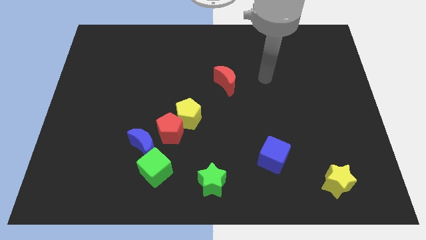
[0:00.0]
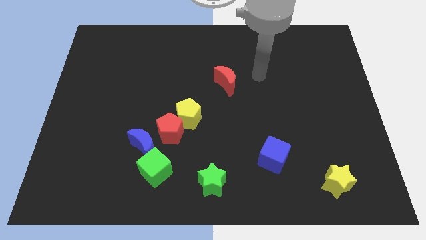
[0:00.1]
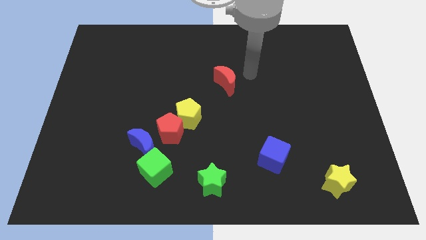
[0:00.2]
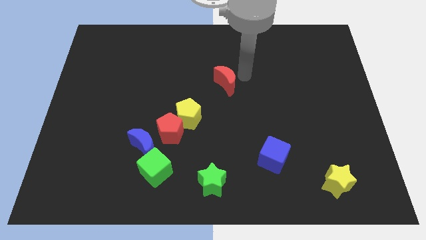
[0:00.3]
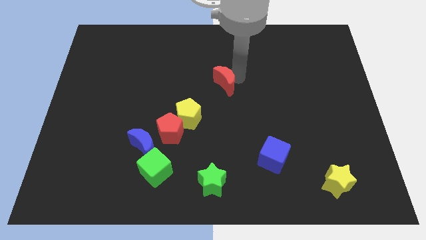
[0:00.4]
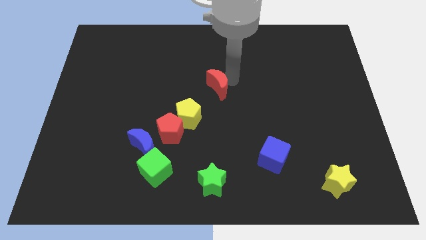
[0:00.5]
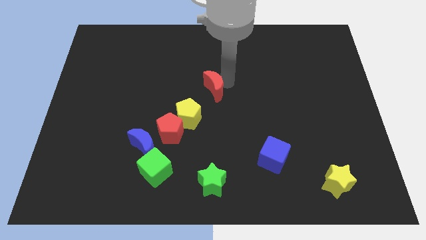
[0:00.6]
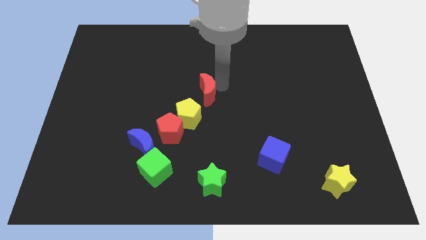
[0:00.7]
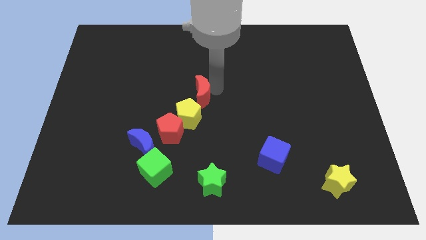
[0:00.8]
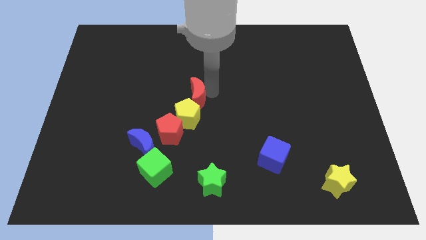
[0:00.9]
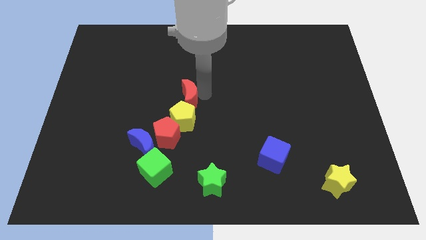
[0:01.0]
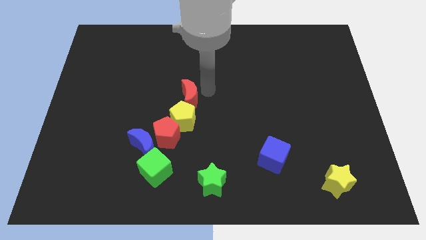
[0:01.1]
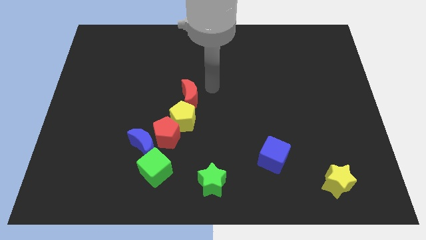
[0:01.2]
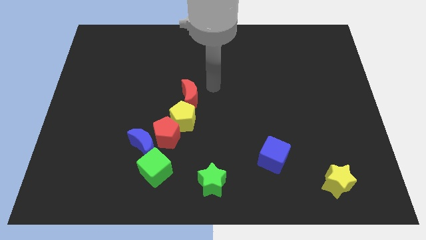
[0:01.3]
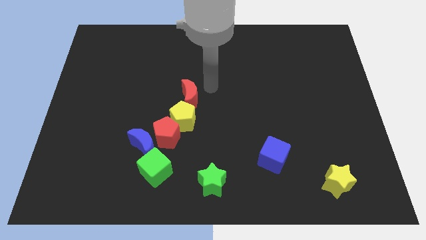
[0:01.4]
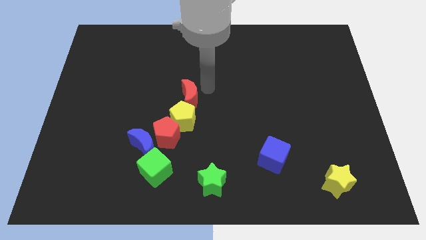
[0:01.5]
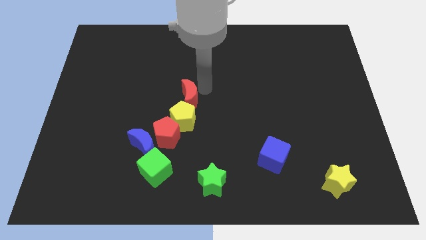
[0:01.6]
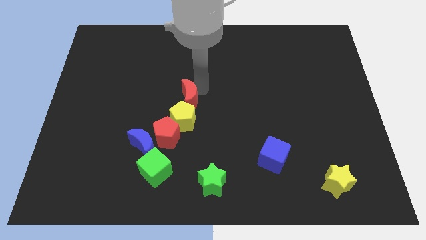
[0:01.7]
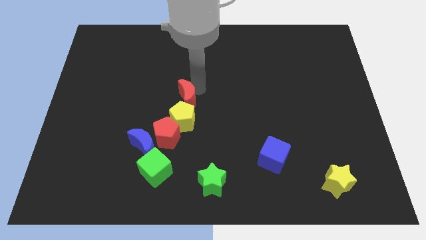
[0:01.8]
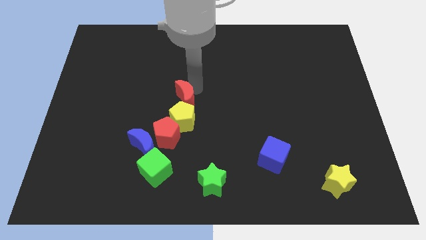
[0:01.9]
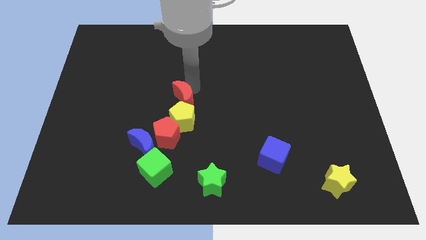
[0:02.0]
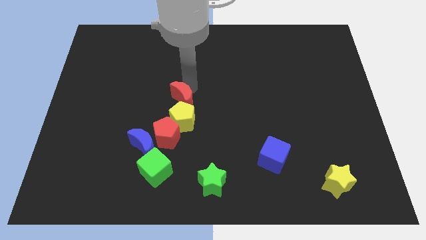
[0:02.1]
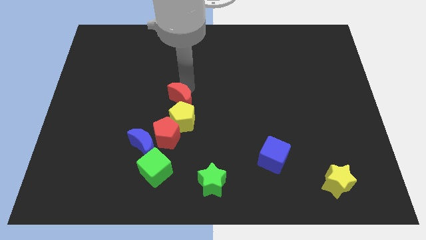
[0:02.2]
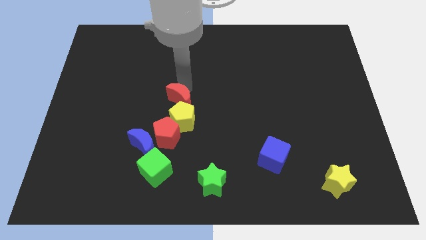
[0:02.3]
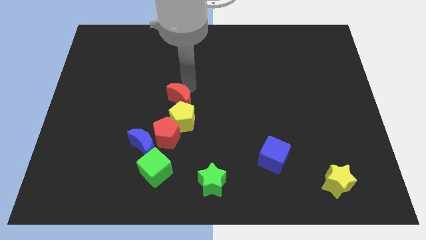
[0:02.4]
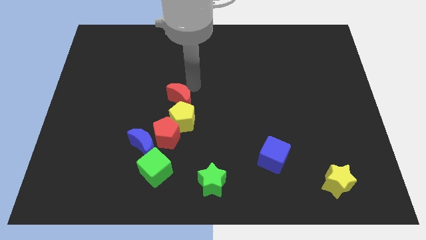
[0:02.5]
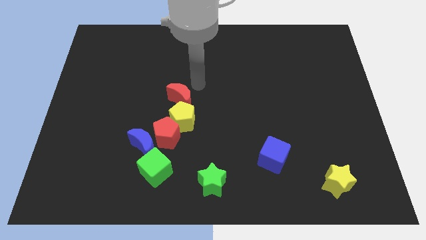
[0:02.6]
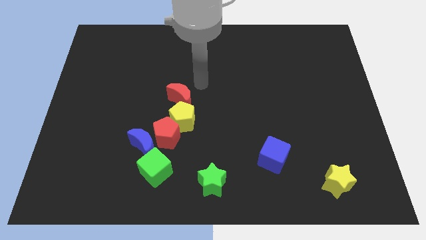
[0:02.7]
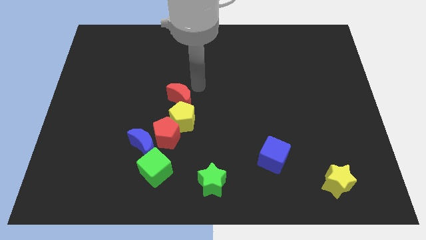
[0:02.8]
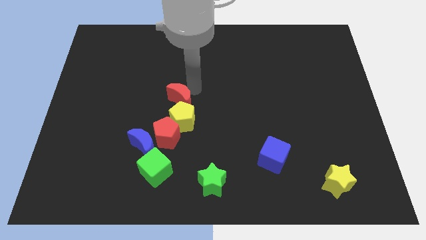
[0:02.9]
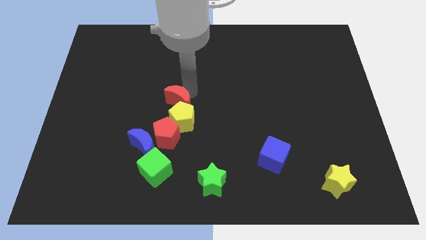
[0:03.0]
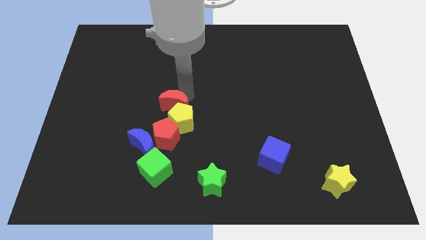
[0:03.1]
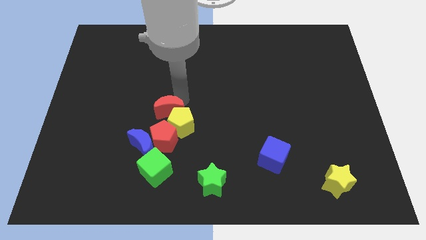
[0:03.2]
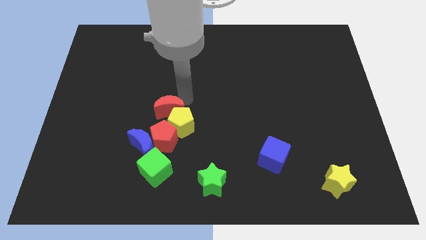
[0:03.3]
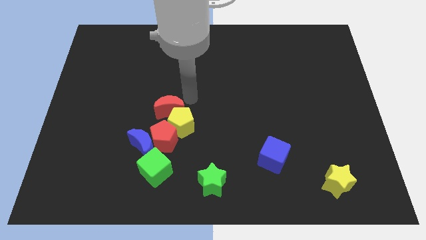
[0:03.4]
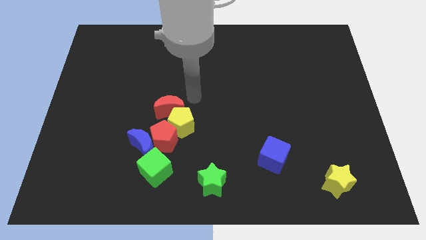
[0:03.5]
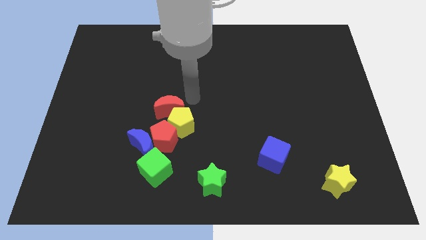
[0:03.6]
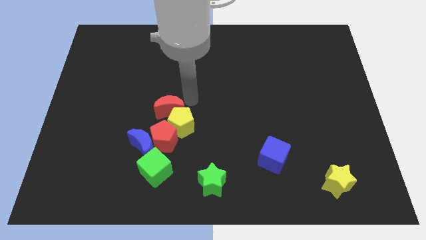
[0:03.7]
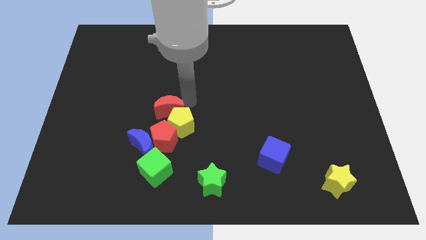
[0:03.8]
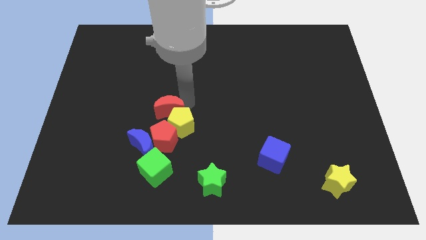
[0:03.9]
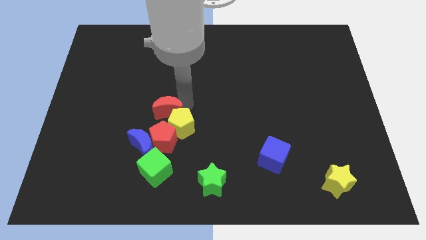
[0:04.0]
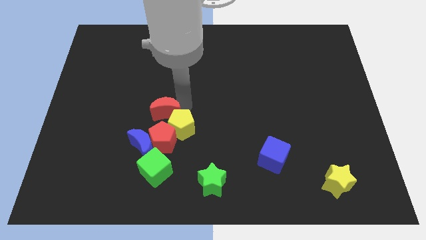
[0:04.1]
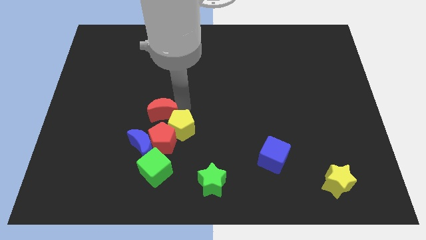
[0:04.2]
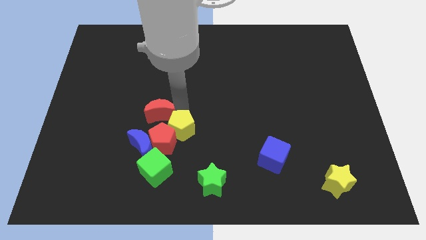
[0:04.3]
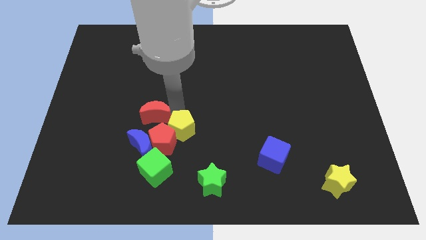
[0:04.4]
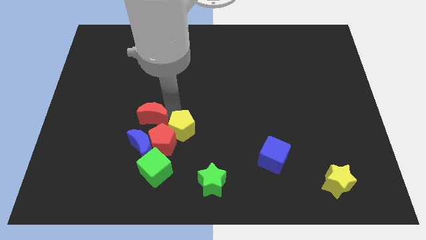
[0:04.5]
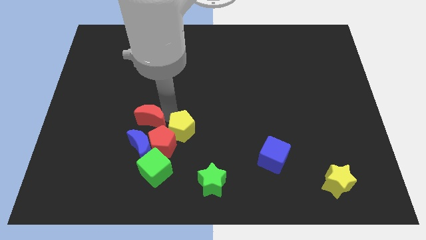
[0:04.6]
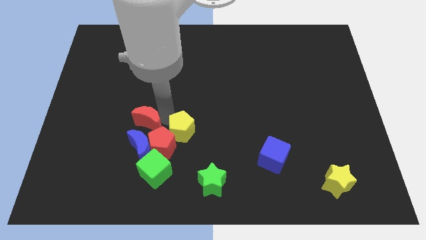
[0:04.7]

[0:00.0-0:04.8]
move the red moon down and to the left diagonally

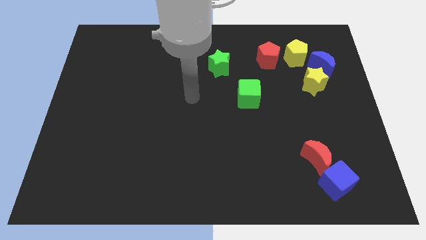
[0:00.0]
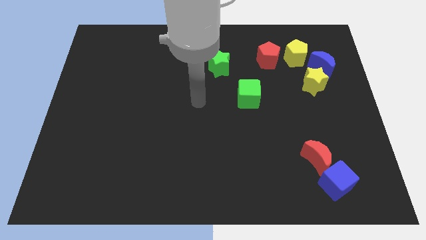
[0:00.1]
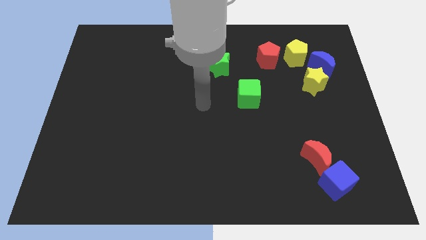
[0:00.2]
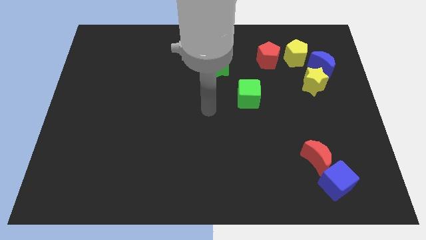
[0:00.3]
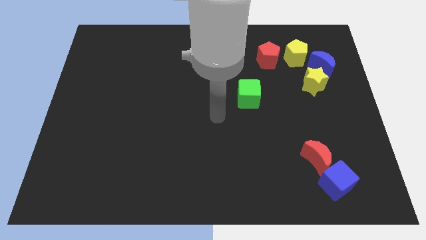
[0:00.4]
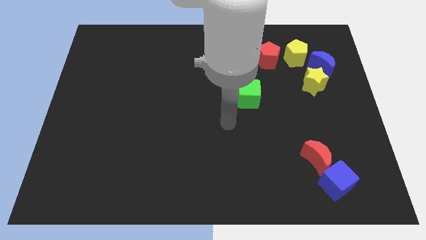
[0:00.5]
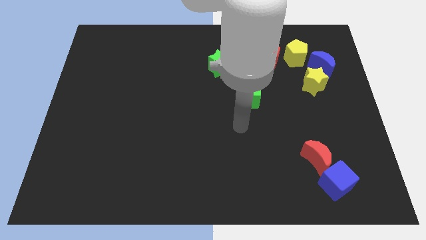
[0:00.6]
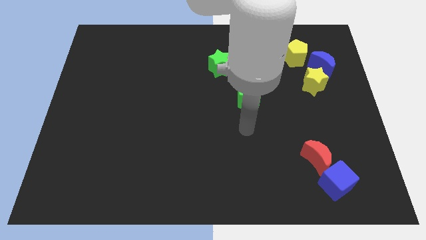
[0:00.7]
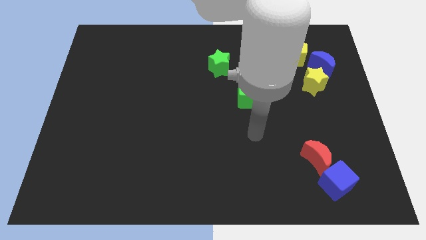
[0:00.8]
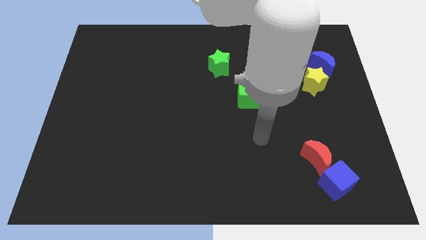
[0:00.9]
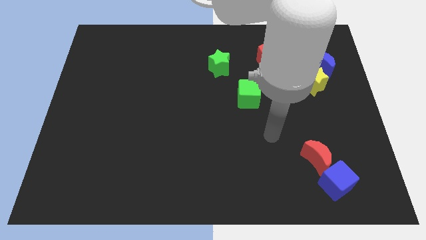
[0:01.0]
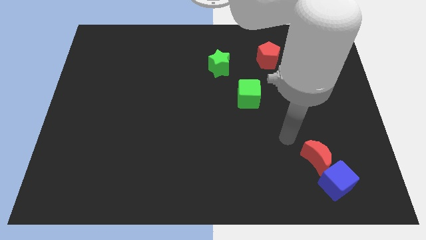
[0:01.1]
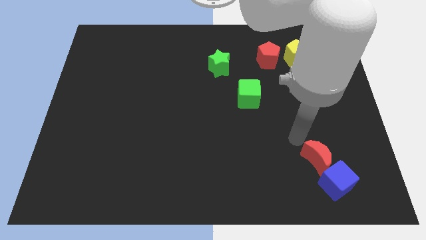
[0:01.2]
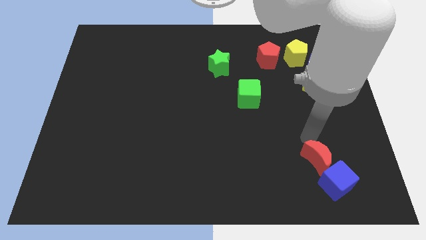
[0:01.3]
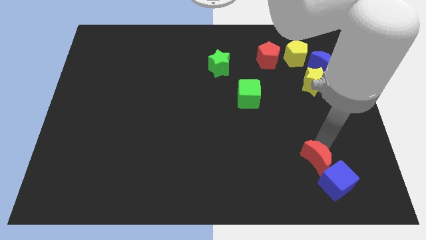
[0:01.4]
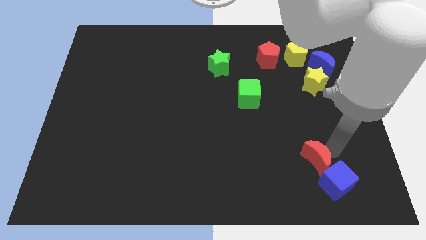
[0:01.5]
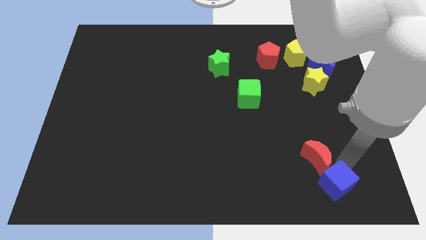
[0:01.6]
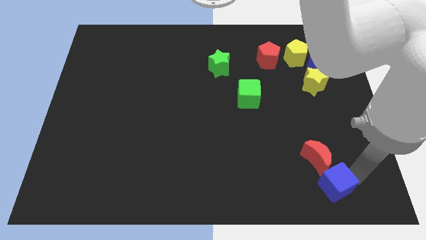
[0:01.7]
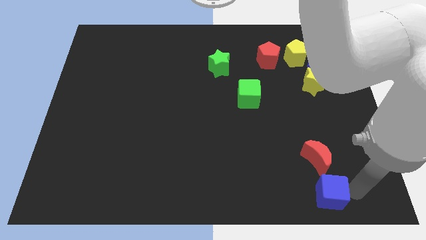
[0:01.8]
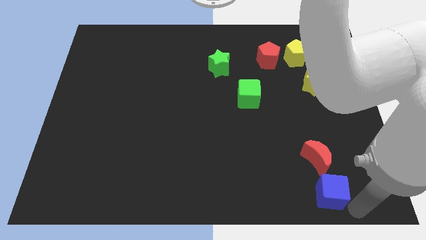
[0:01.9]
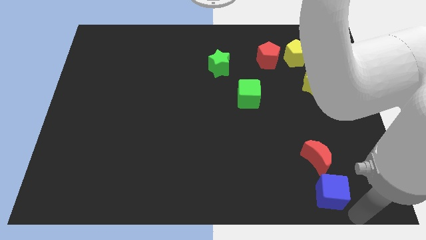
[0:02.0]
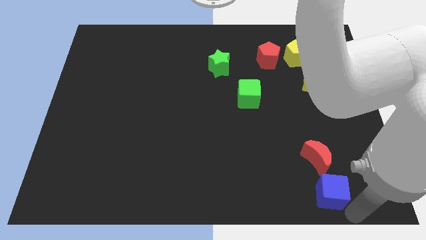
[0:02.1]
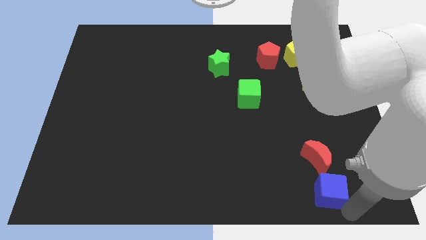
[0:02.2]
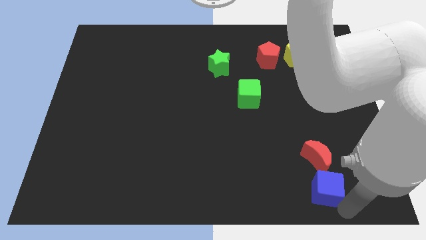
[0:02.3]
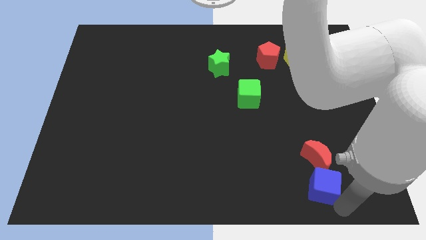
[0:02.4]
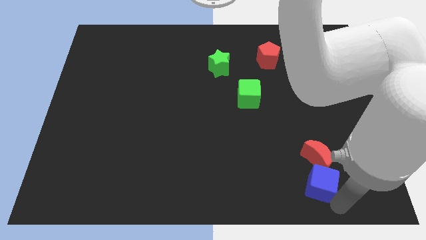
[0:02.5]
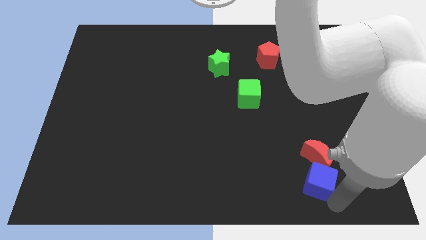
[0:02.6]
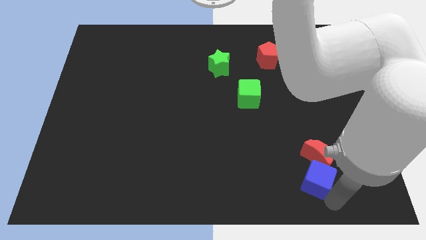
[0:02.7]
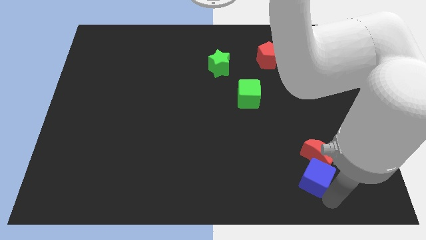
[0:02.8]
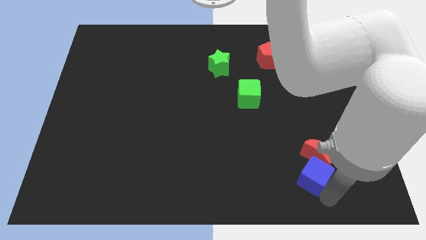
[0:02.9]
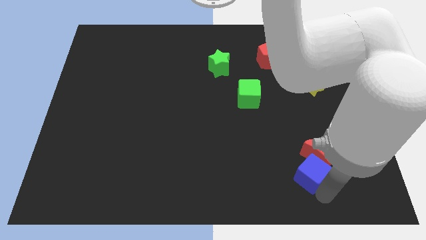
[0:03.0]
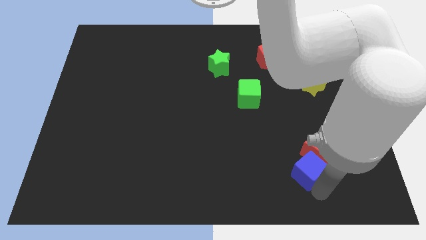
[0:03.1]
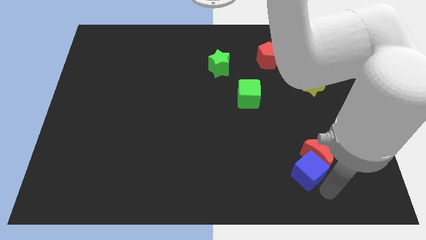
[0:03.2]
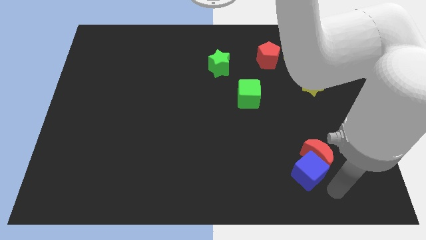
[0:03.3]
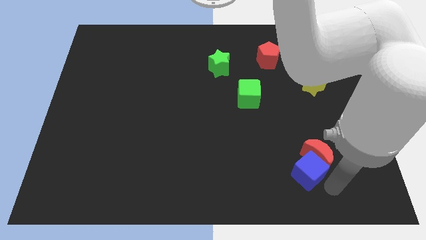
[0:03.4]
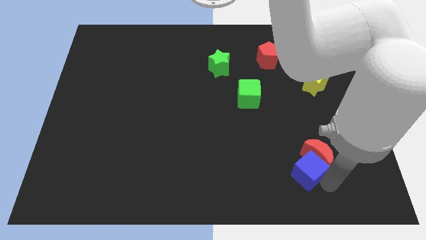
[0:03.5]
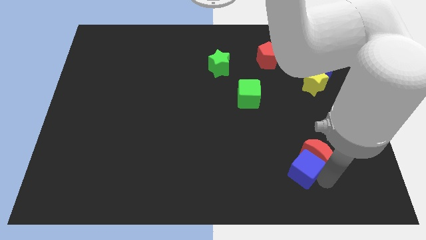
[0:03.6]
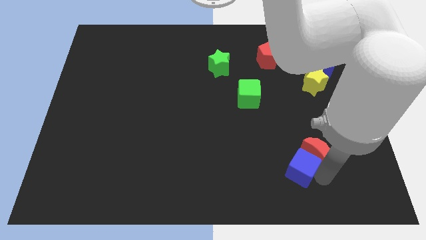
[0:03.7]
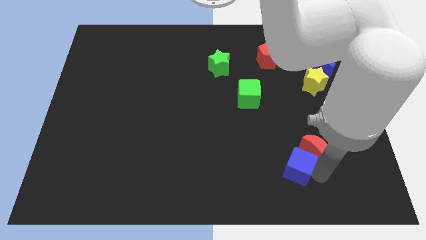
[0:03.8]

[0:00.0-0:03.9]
move the blue cube a bit upwards and to the left
